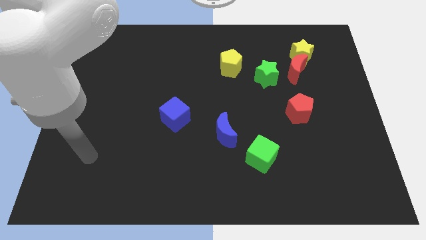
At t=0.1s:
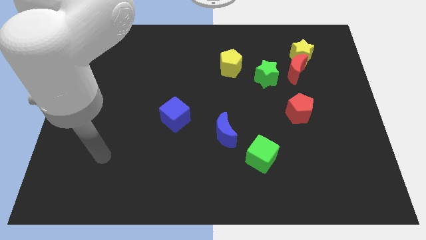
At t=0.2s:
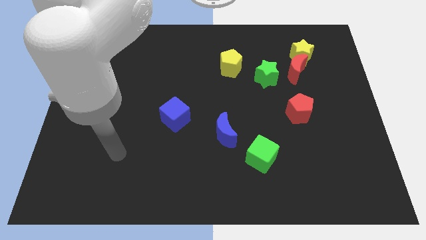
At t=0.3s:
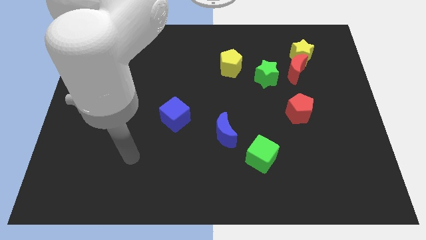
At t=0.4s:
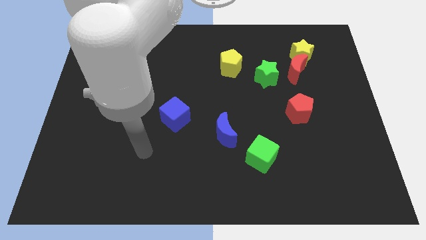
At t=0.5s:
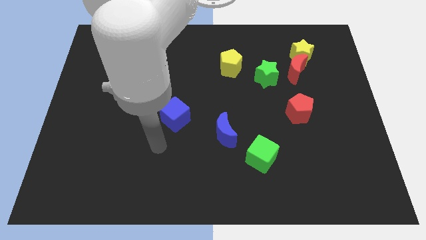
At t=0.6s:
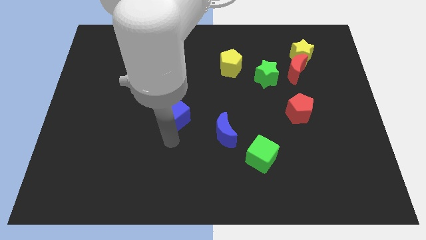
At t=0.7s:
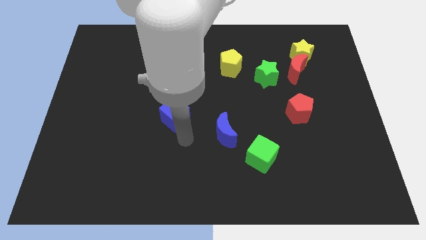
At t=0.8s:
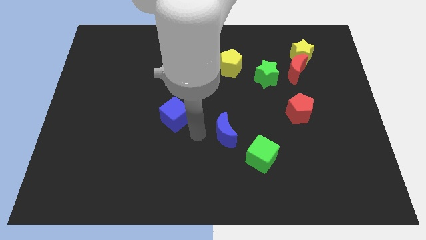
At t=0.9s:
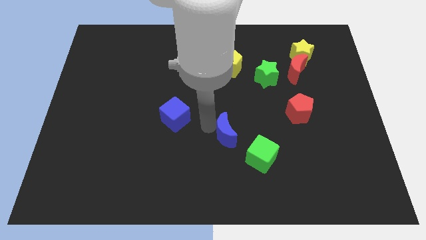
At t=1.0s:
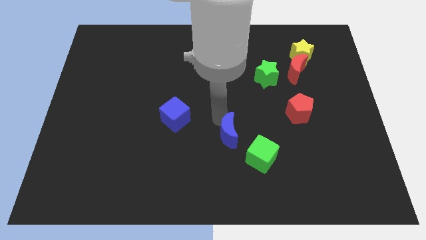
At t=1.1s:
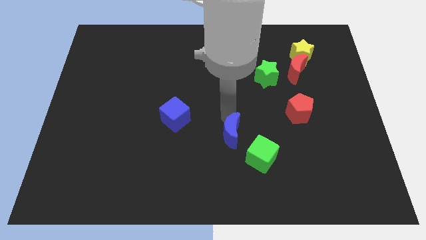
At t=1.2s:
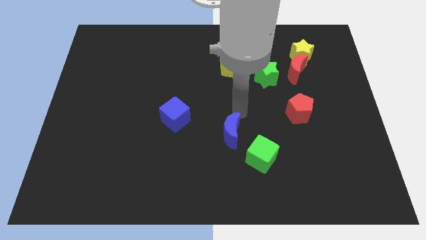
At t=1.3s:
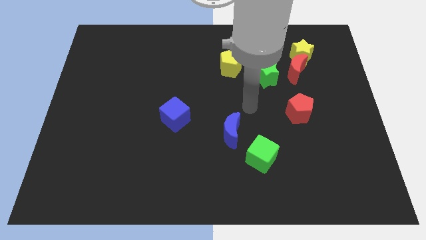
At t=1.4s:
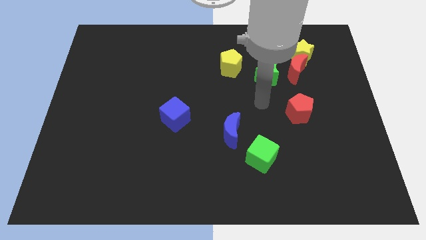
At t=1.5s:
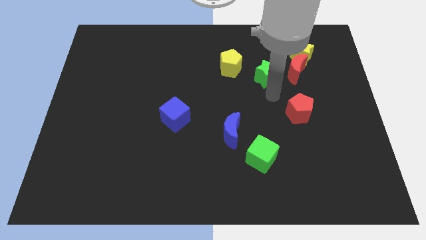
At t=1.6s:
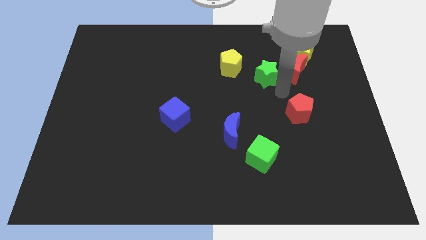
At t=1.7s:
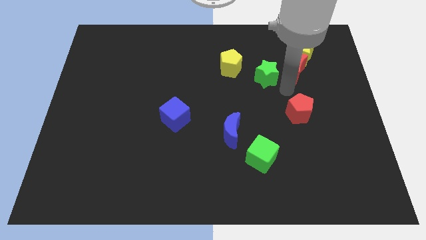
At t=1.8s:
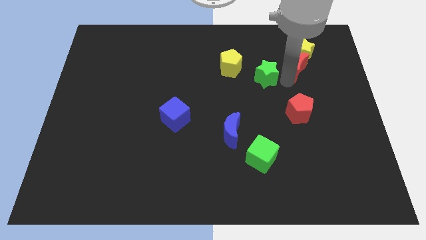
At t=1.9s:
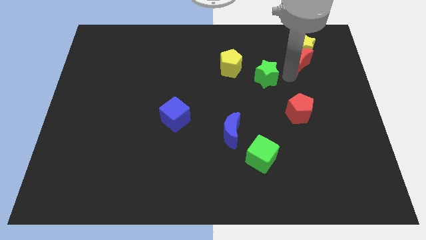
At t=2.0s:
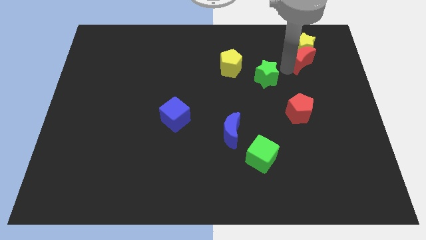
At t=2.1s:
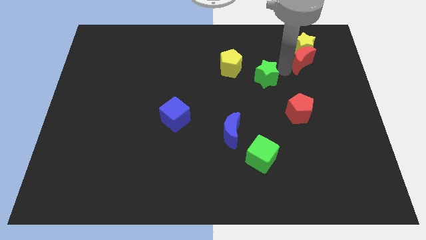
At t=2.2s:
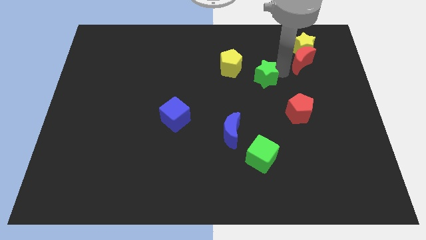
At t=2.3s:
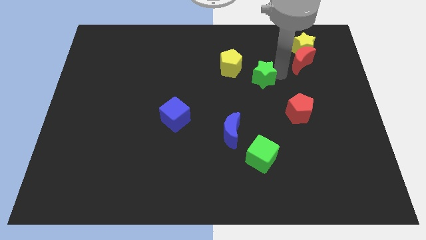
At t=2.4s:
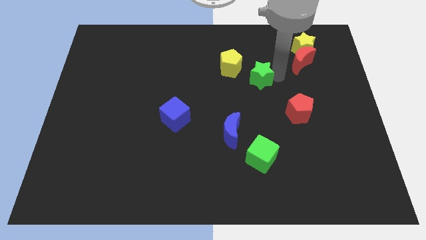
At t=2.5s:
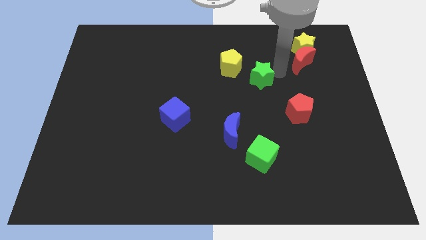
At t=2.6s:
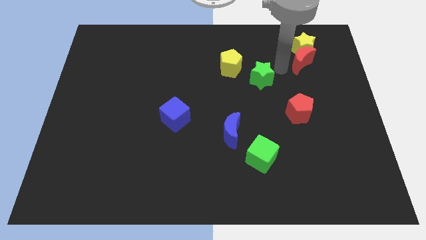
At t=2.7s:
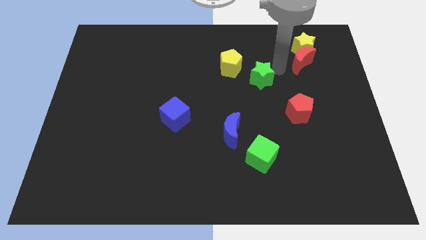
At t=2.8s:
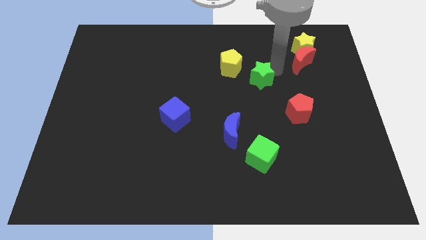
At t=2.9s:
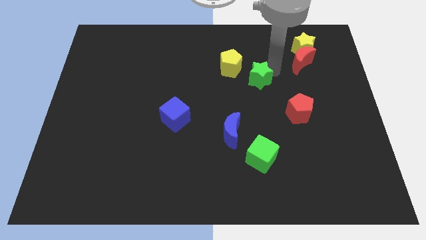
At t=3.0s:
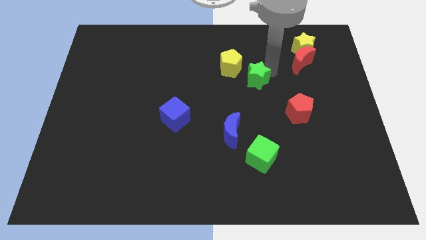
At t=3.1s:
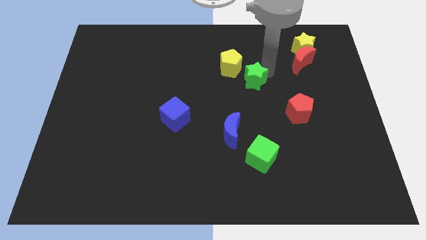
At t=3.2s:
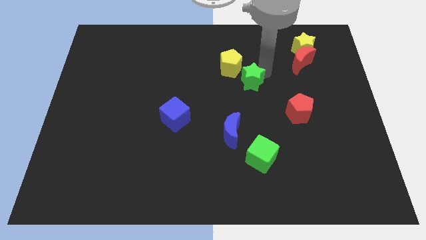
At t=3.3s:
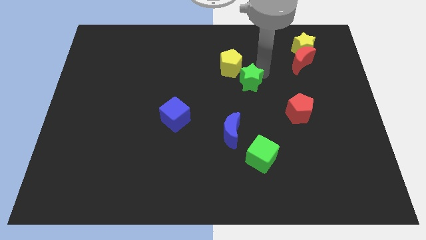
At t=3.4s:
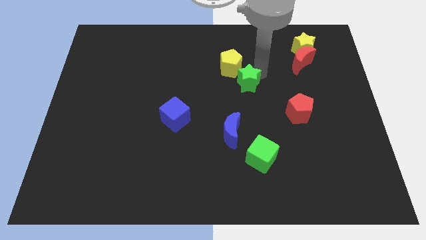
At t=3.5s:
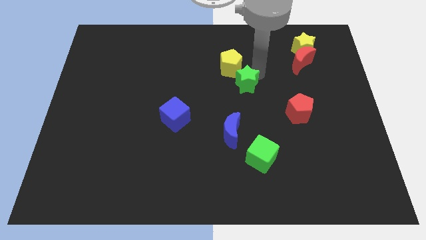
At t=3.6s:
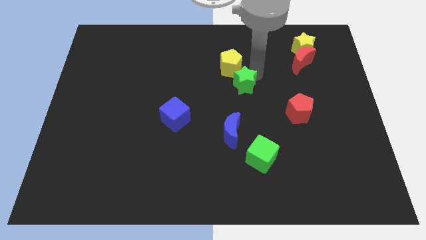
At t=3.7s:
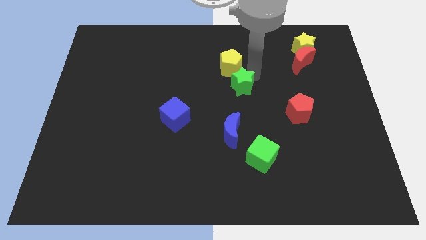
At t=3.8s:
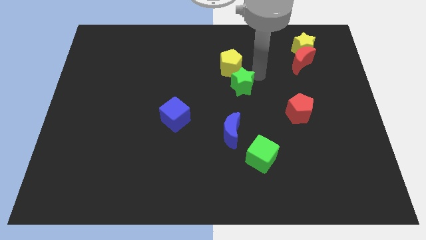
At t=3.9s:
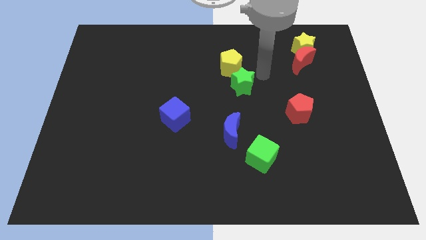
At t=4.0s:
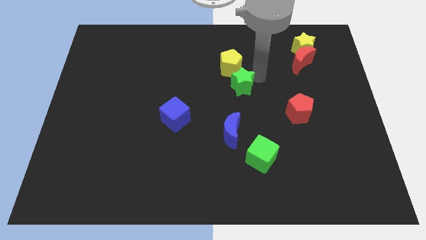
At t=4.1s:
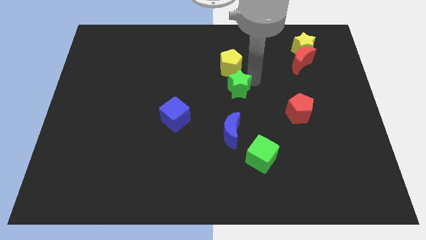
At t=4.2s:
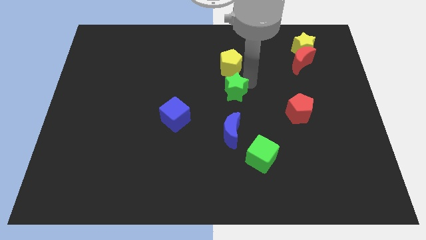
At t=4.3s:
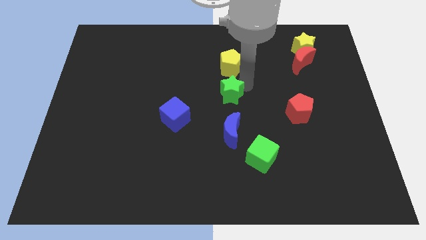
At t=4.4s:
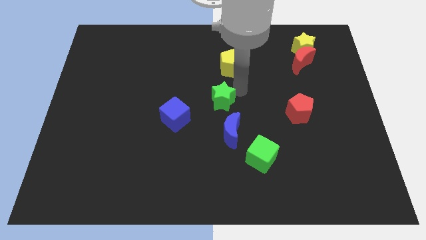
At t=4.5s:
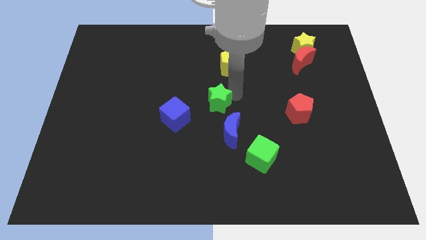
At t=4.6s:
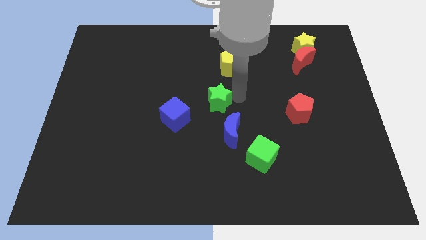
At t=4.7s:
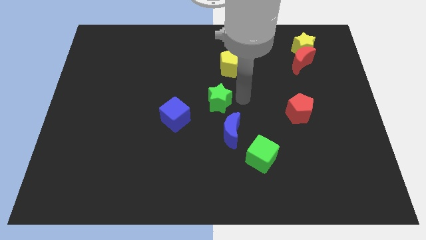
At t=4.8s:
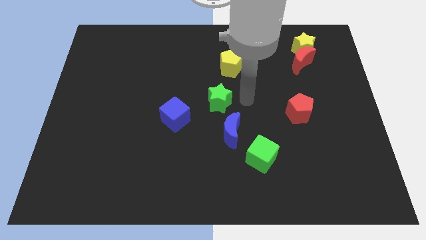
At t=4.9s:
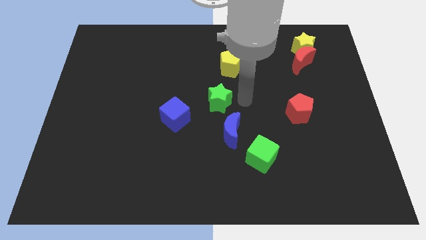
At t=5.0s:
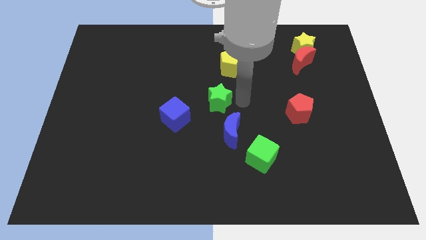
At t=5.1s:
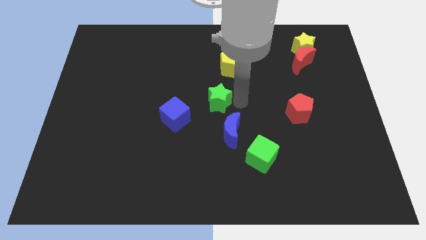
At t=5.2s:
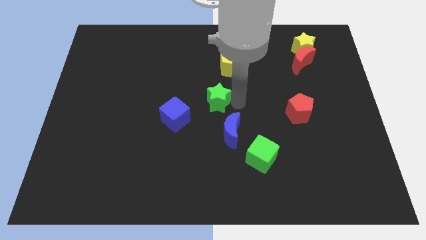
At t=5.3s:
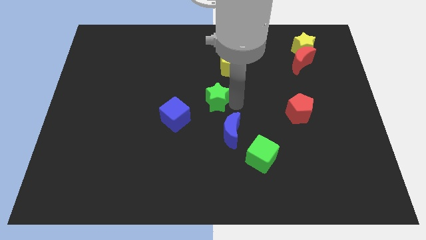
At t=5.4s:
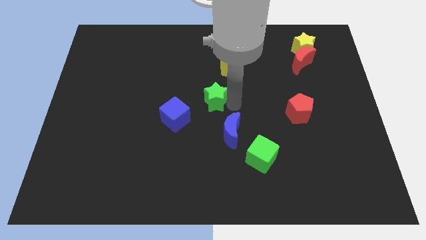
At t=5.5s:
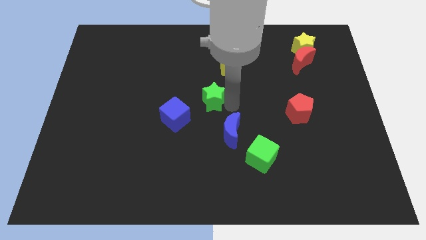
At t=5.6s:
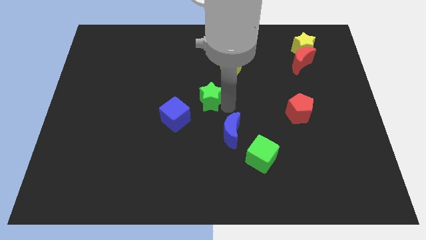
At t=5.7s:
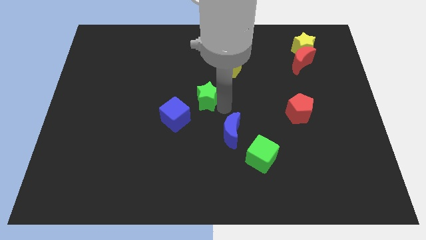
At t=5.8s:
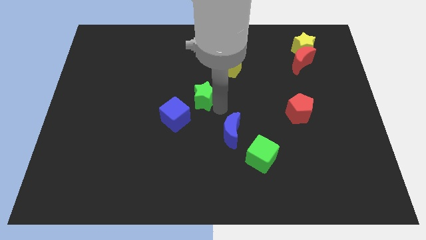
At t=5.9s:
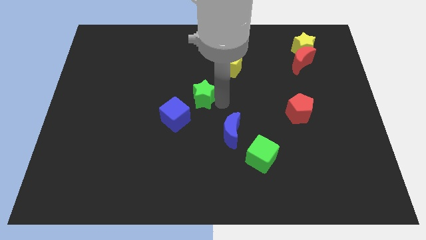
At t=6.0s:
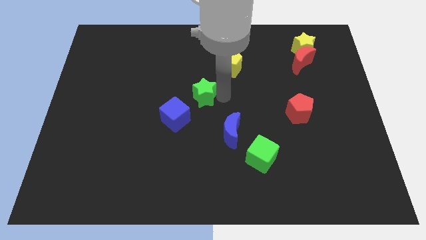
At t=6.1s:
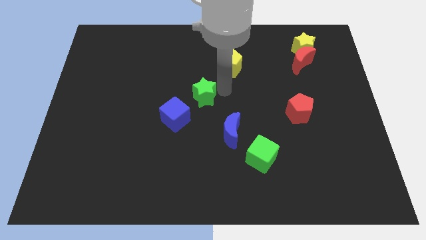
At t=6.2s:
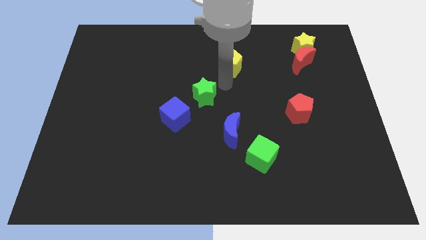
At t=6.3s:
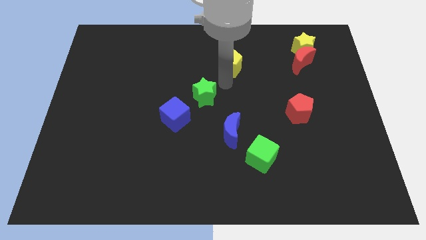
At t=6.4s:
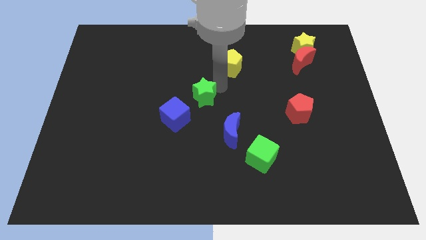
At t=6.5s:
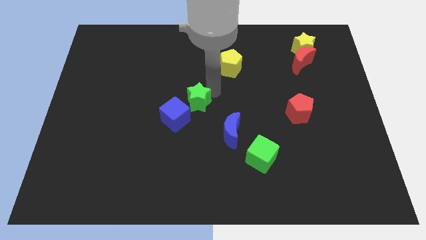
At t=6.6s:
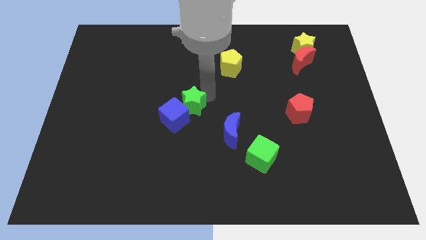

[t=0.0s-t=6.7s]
push the green star towards the blue cube

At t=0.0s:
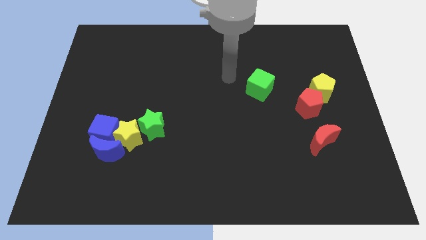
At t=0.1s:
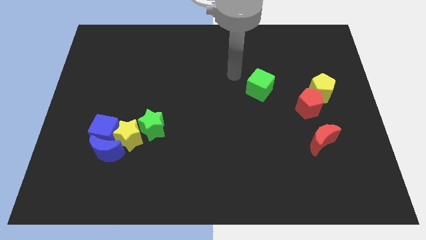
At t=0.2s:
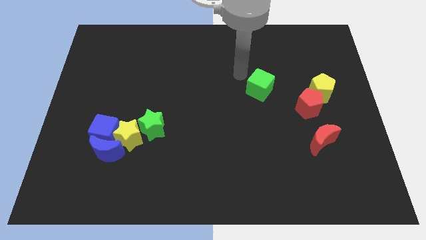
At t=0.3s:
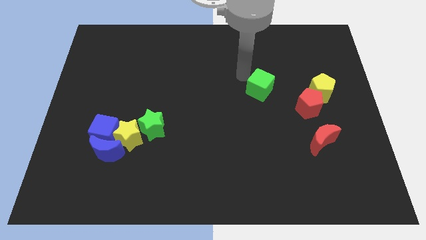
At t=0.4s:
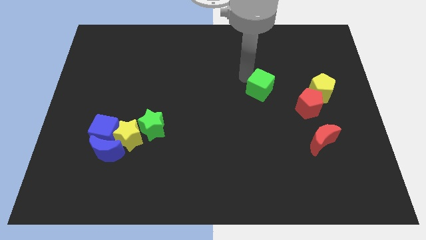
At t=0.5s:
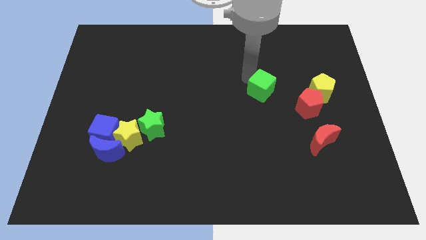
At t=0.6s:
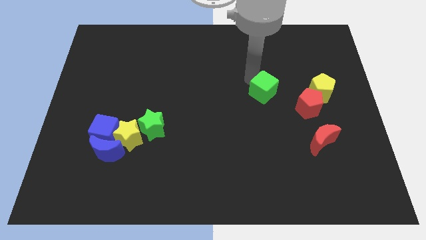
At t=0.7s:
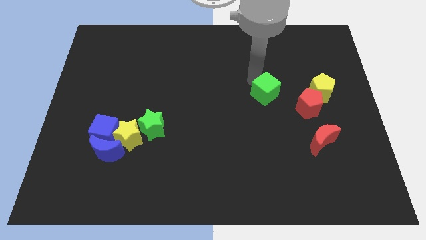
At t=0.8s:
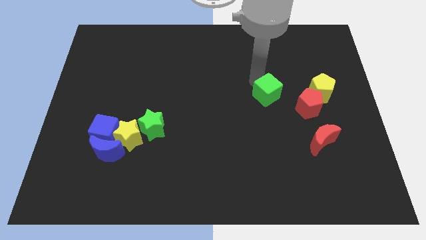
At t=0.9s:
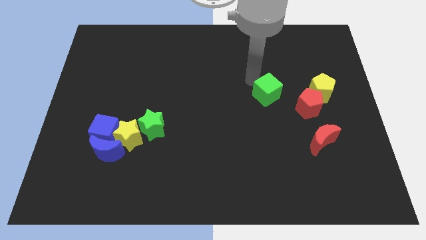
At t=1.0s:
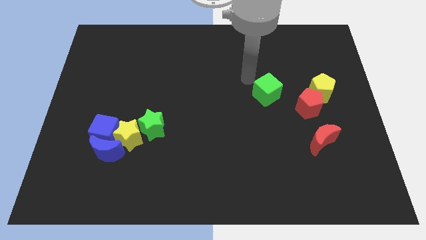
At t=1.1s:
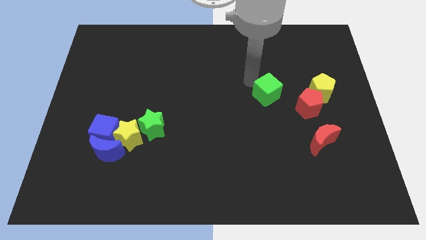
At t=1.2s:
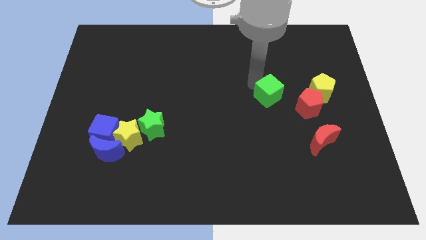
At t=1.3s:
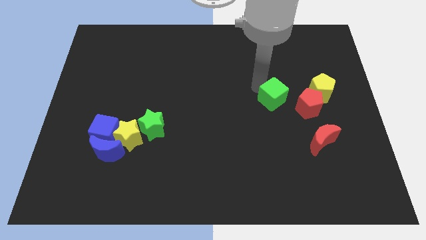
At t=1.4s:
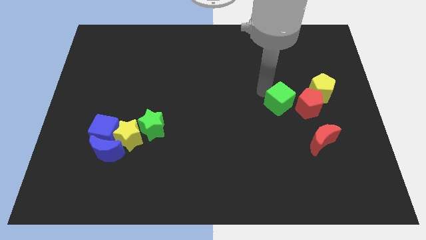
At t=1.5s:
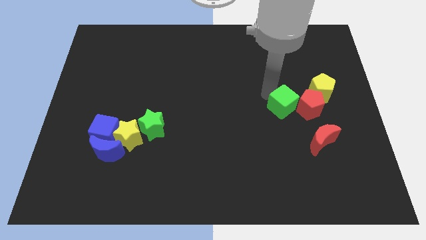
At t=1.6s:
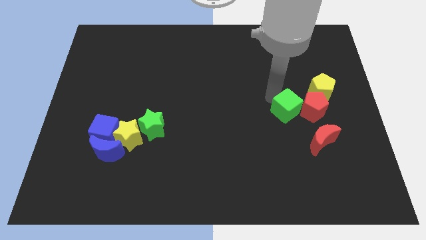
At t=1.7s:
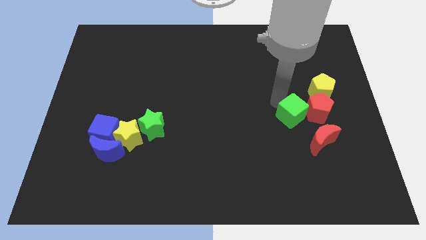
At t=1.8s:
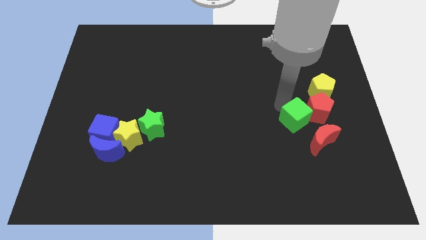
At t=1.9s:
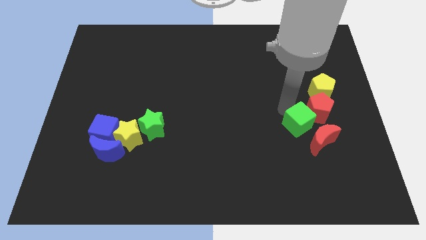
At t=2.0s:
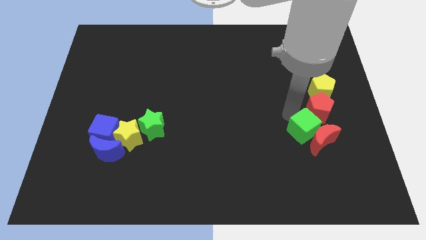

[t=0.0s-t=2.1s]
push the green cube next to the red moon
